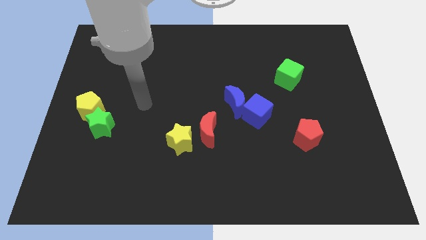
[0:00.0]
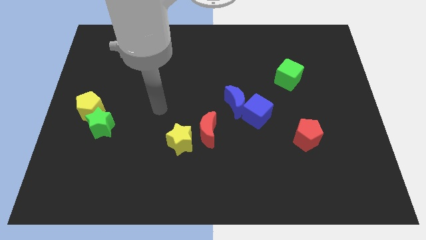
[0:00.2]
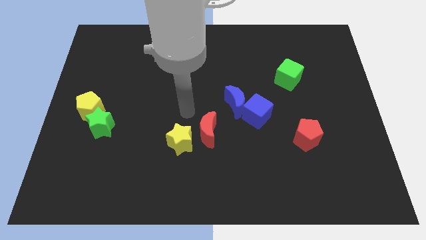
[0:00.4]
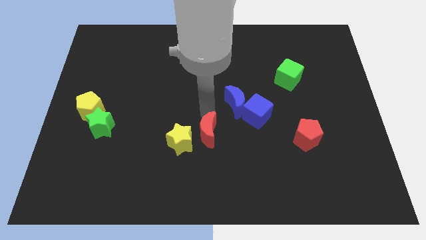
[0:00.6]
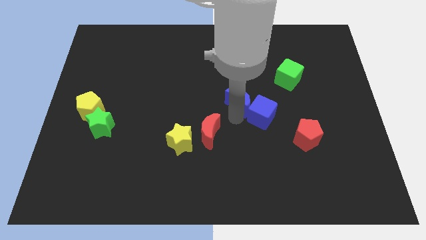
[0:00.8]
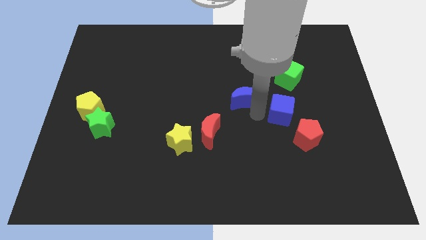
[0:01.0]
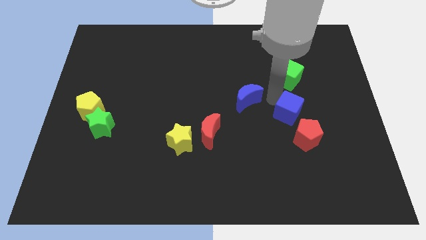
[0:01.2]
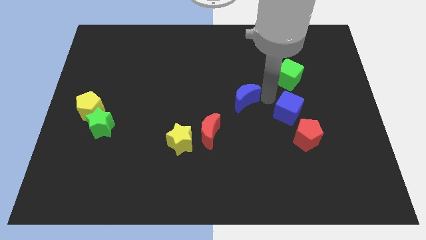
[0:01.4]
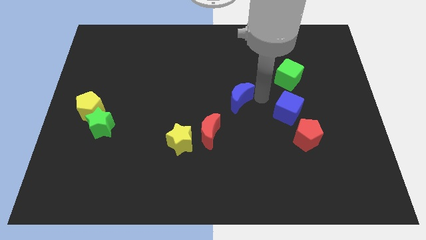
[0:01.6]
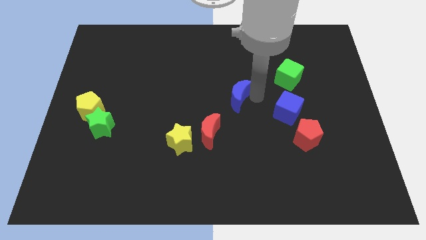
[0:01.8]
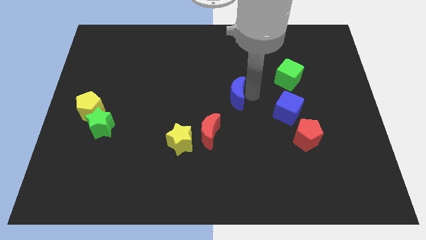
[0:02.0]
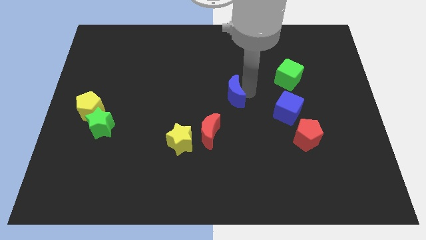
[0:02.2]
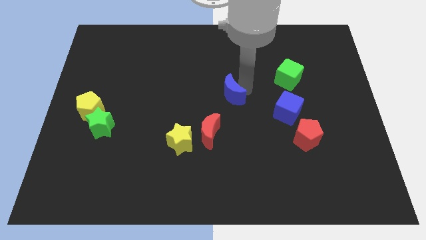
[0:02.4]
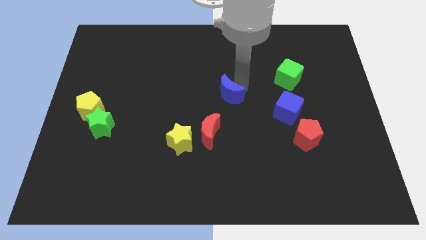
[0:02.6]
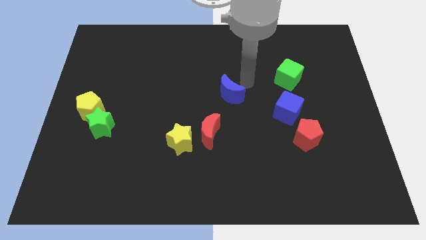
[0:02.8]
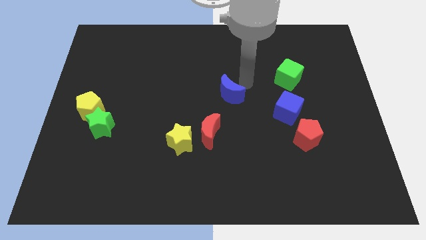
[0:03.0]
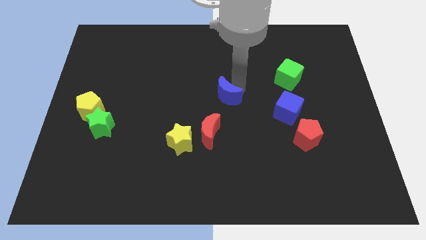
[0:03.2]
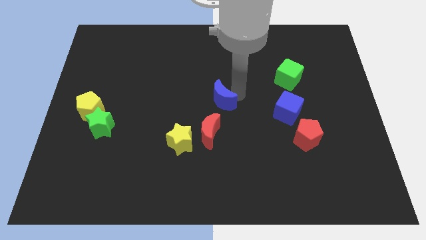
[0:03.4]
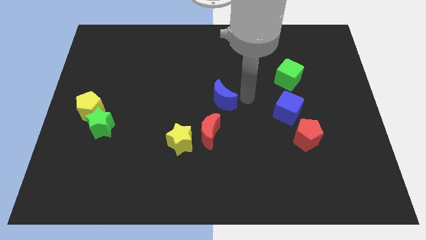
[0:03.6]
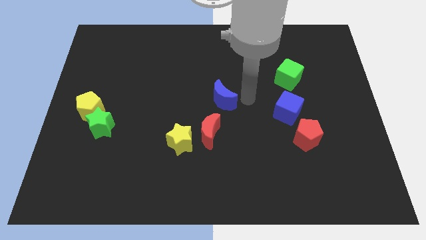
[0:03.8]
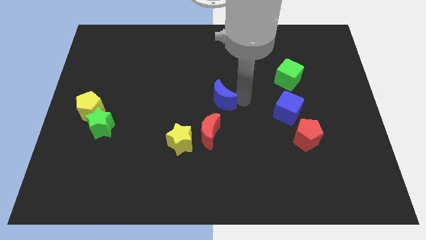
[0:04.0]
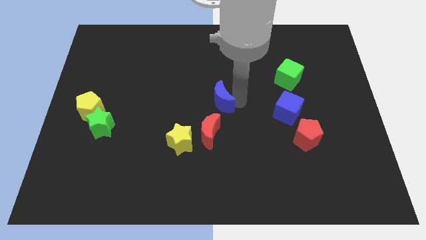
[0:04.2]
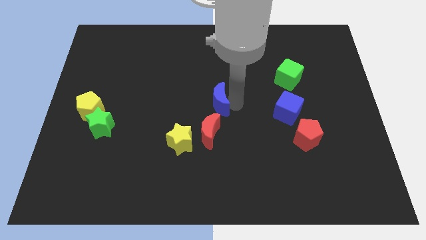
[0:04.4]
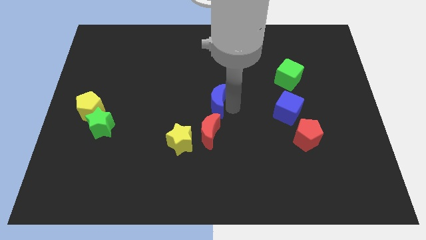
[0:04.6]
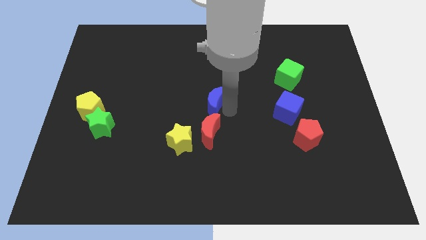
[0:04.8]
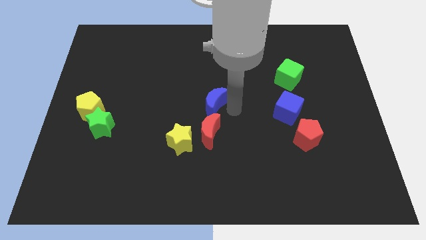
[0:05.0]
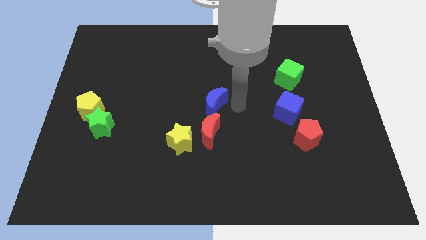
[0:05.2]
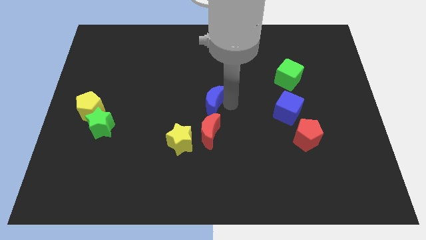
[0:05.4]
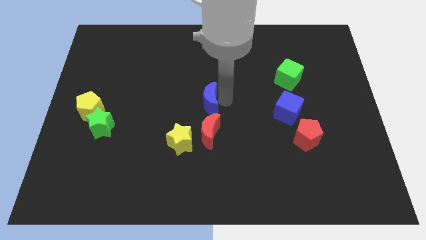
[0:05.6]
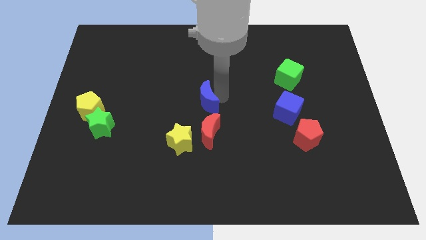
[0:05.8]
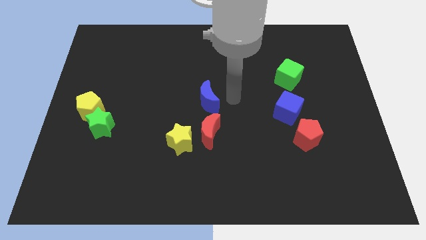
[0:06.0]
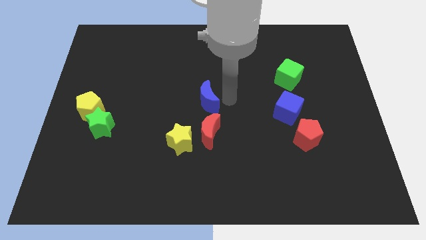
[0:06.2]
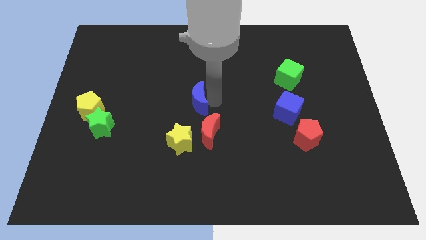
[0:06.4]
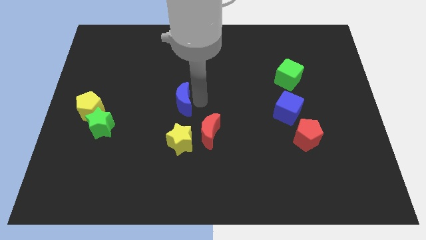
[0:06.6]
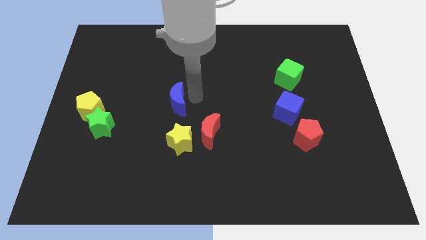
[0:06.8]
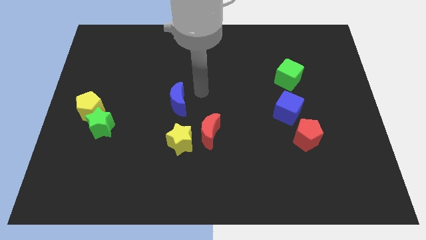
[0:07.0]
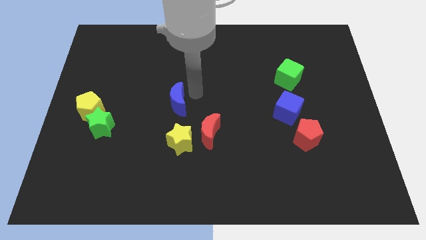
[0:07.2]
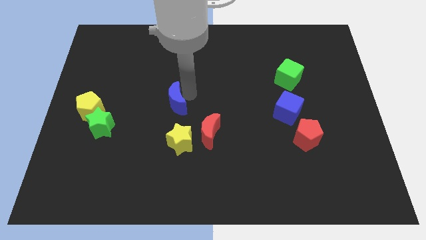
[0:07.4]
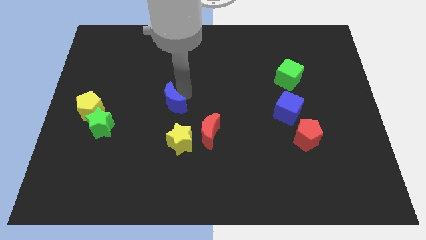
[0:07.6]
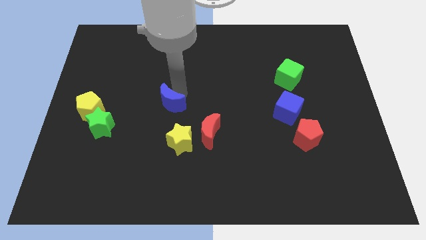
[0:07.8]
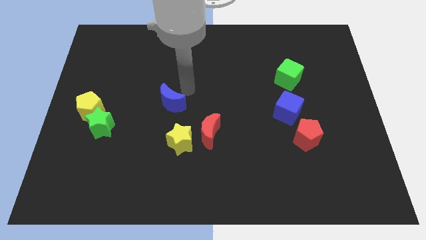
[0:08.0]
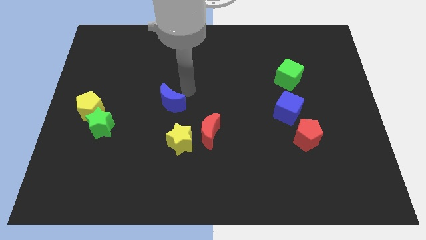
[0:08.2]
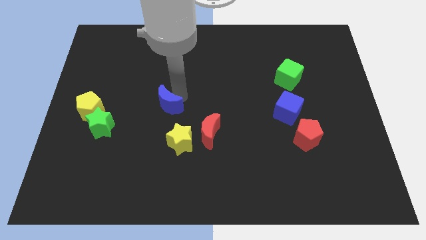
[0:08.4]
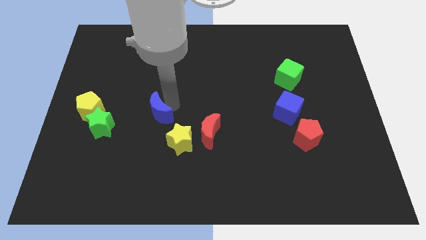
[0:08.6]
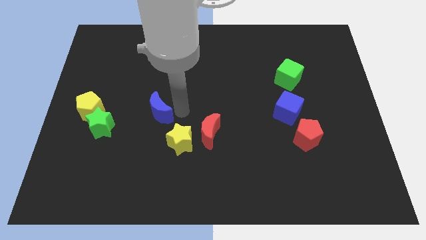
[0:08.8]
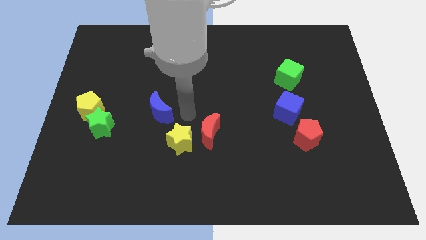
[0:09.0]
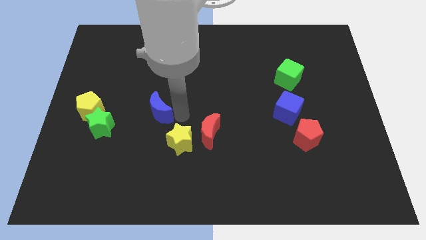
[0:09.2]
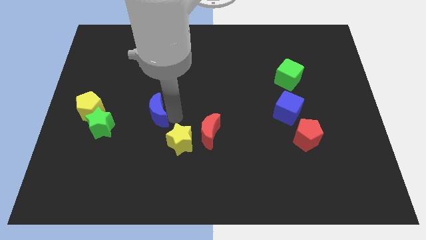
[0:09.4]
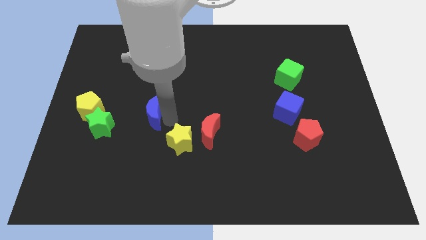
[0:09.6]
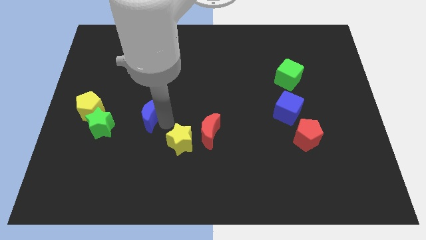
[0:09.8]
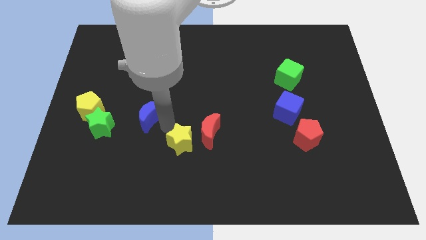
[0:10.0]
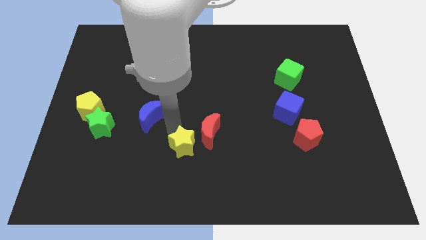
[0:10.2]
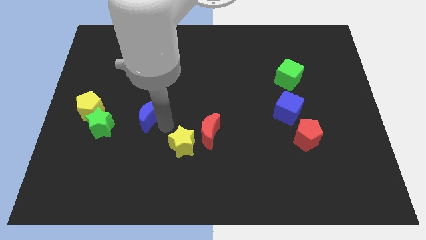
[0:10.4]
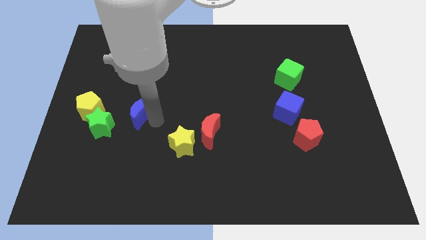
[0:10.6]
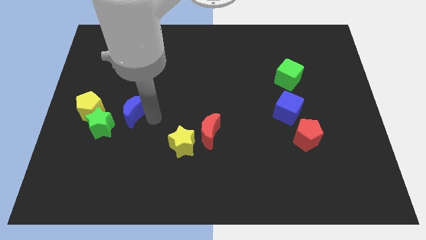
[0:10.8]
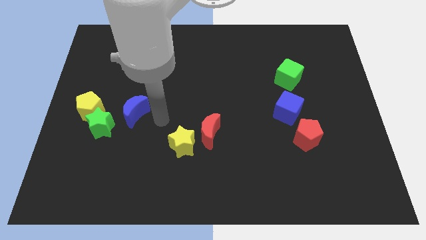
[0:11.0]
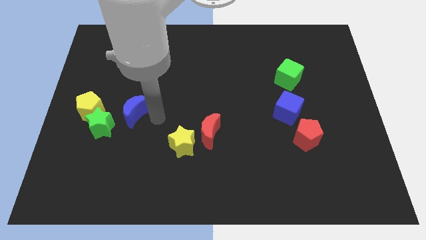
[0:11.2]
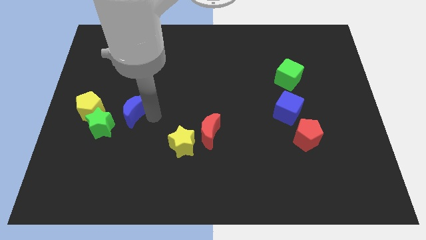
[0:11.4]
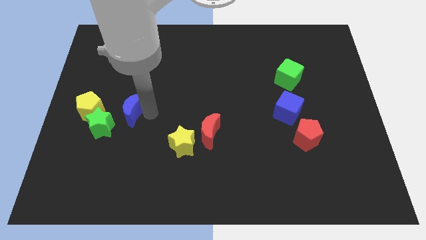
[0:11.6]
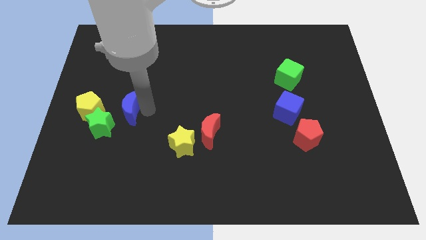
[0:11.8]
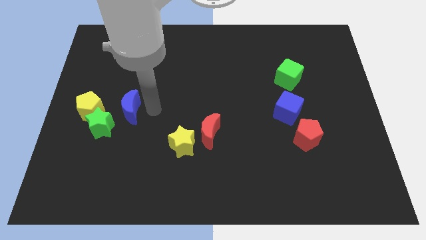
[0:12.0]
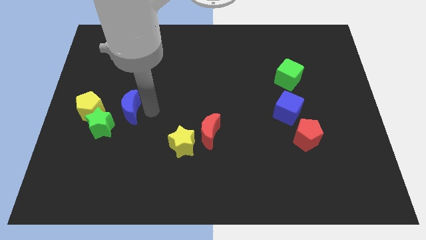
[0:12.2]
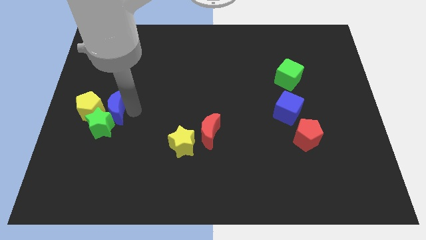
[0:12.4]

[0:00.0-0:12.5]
move the blue moon towards the yellow pentagon

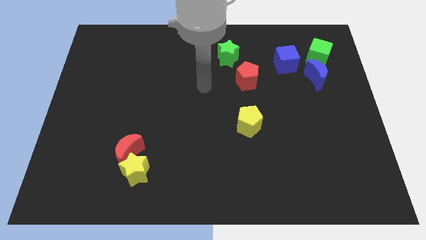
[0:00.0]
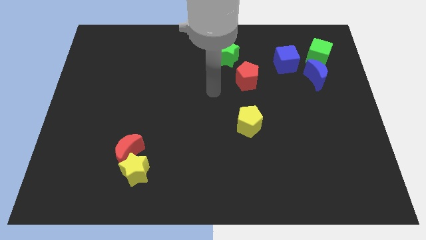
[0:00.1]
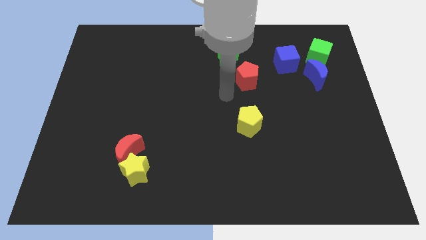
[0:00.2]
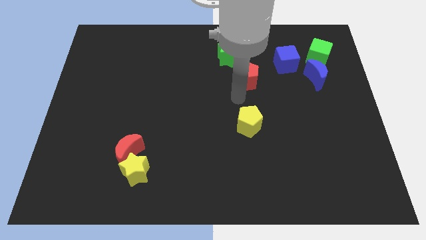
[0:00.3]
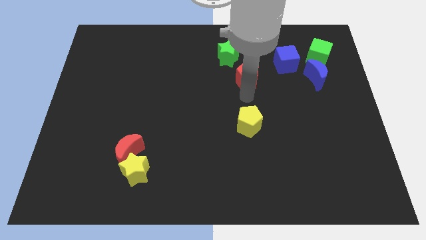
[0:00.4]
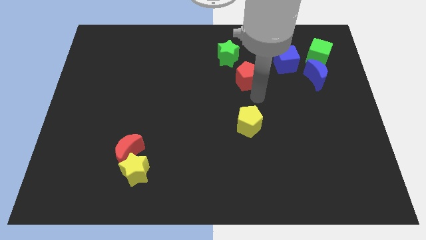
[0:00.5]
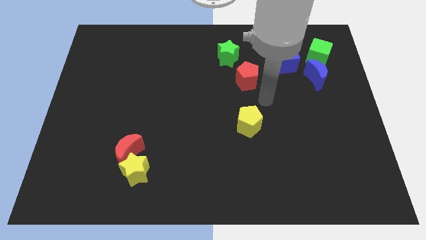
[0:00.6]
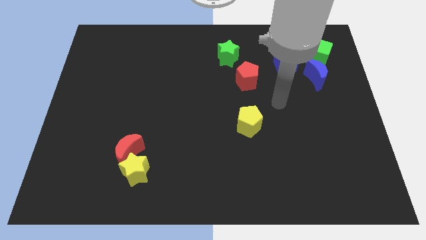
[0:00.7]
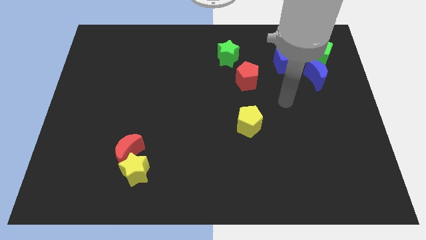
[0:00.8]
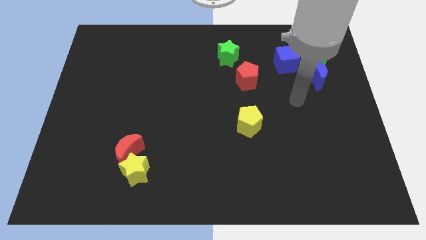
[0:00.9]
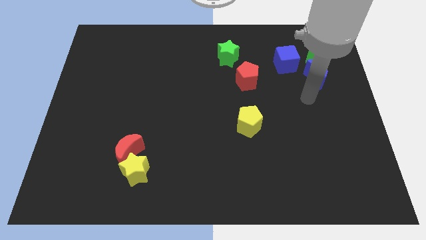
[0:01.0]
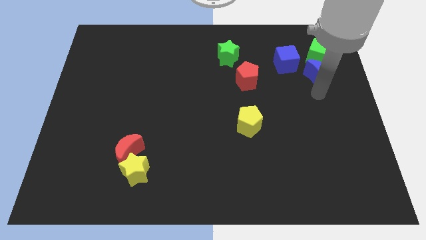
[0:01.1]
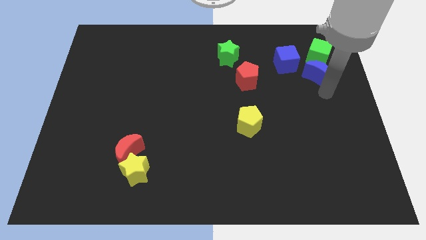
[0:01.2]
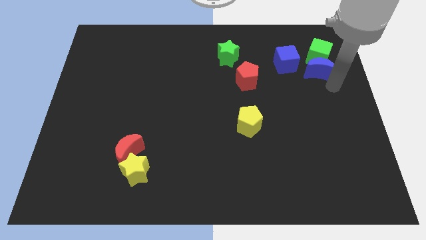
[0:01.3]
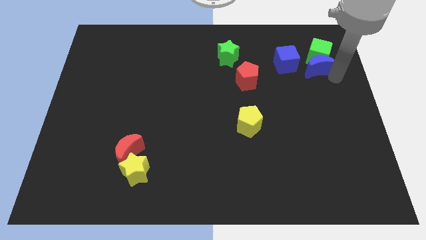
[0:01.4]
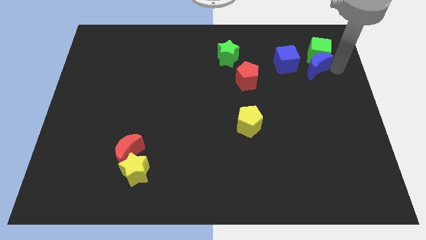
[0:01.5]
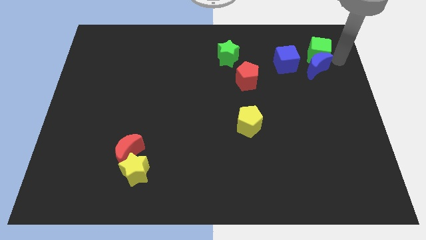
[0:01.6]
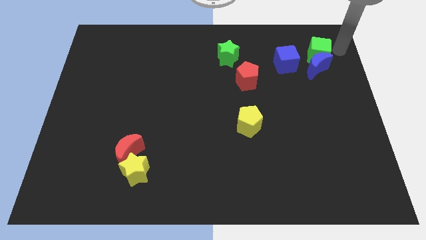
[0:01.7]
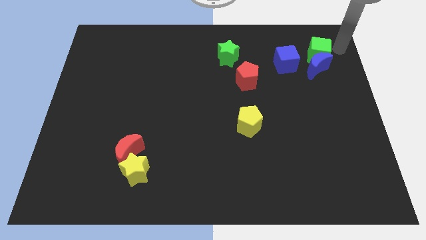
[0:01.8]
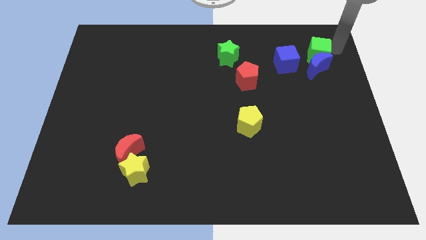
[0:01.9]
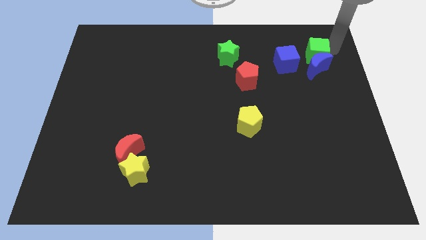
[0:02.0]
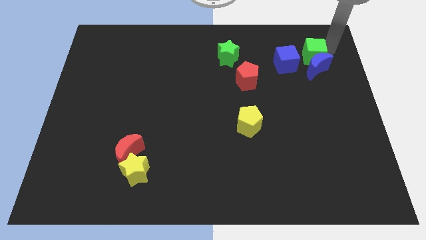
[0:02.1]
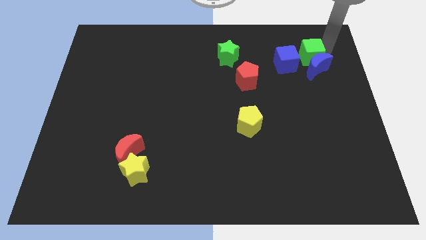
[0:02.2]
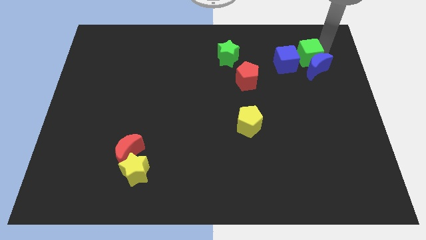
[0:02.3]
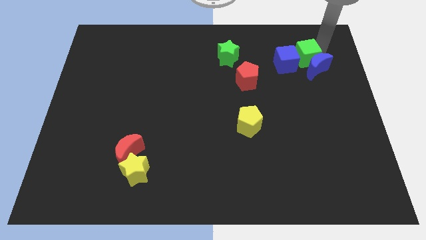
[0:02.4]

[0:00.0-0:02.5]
push the green cube next to the blue cube
